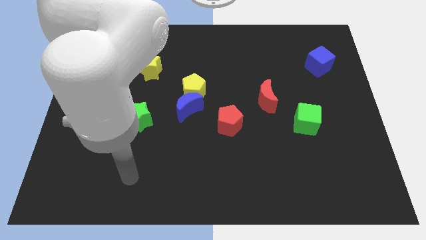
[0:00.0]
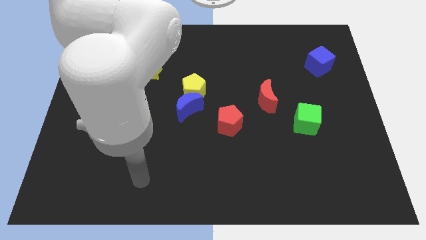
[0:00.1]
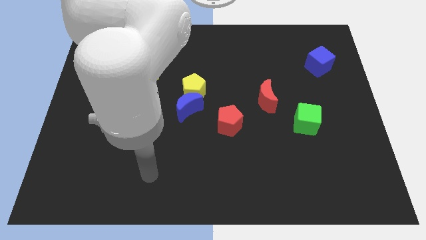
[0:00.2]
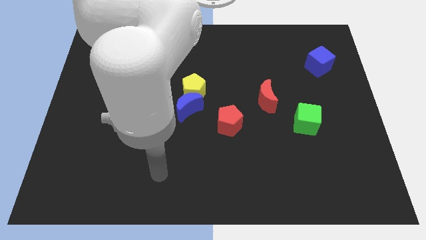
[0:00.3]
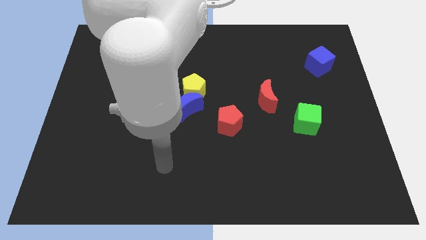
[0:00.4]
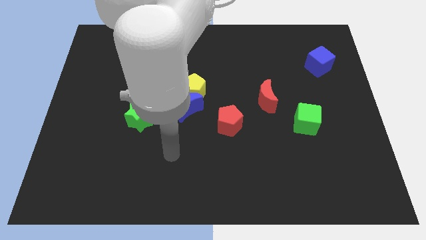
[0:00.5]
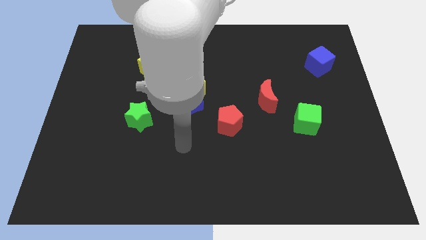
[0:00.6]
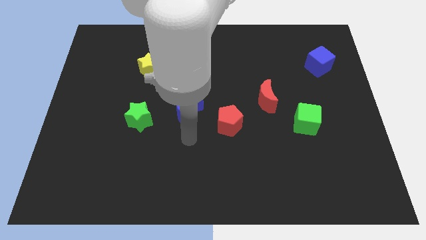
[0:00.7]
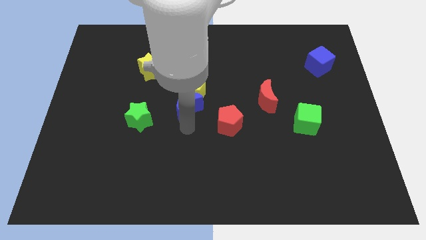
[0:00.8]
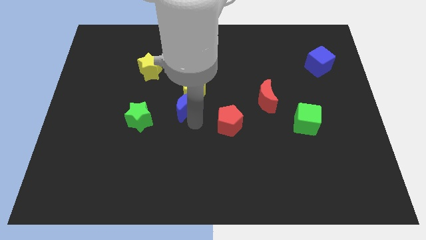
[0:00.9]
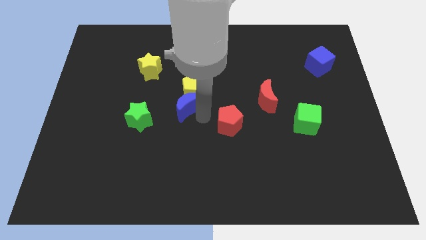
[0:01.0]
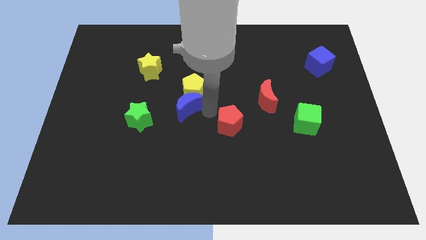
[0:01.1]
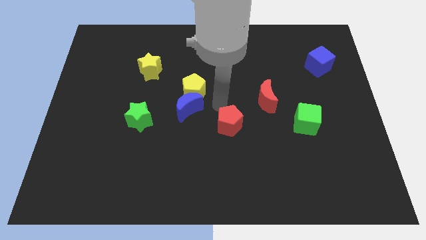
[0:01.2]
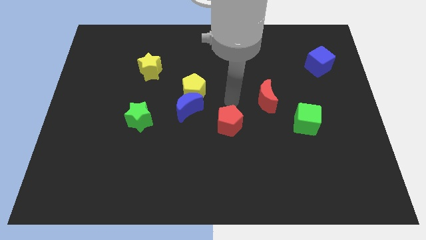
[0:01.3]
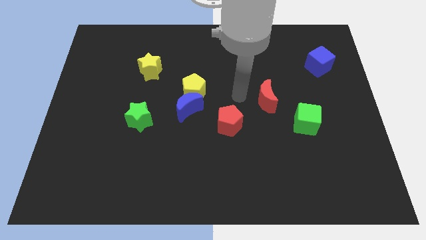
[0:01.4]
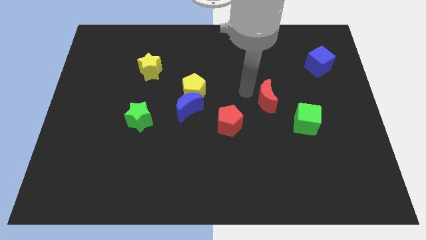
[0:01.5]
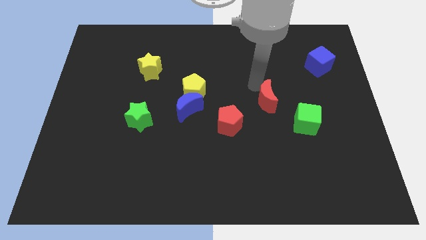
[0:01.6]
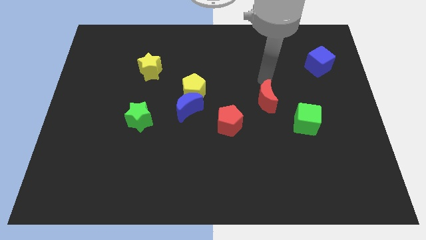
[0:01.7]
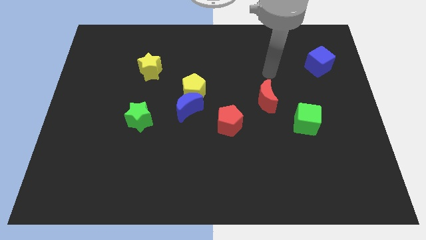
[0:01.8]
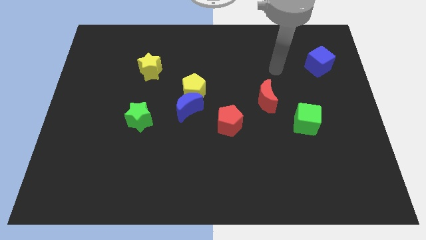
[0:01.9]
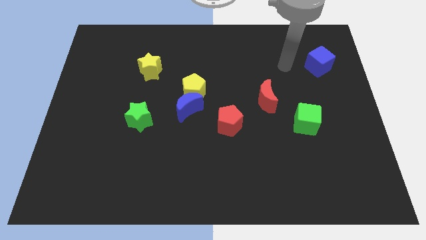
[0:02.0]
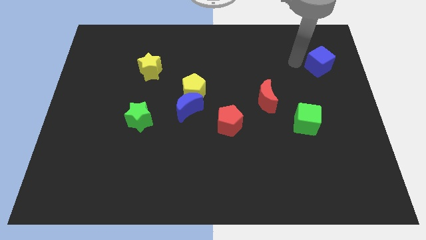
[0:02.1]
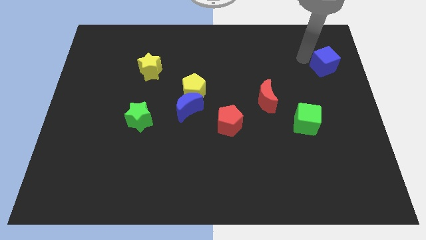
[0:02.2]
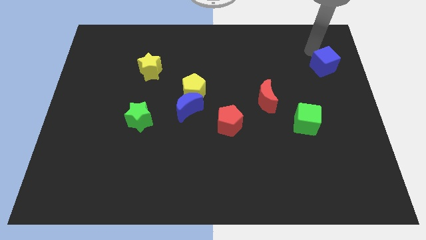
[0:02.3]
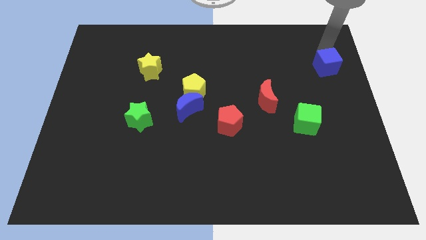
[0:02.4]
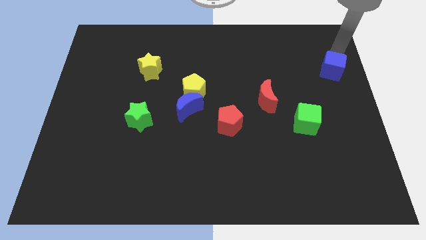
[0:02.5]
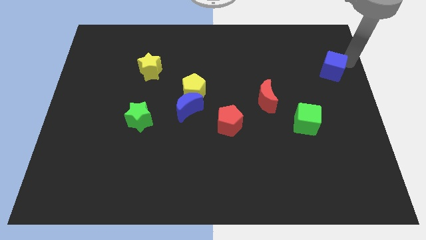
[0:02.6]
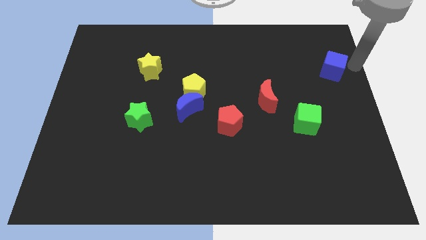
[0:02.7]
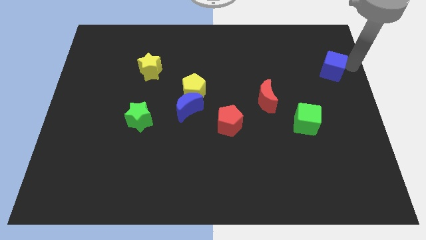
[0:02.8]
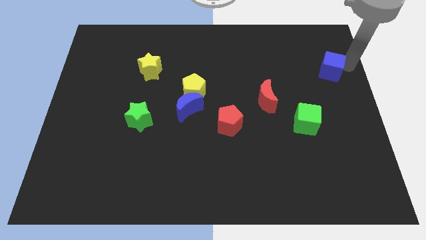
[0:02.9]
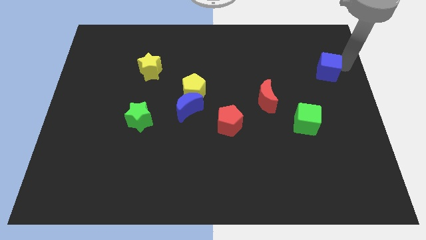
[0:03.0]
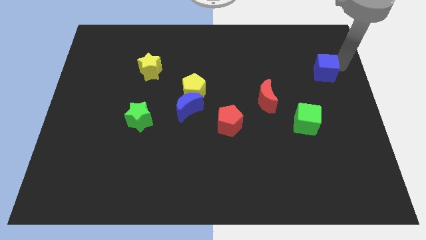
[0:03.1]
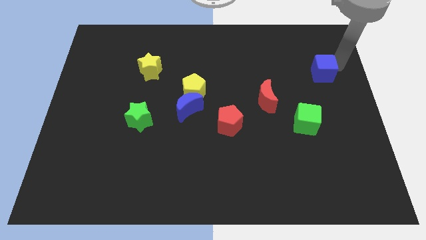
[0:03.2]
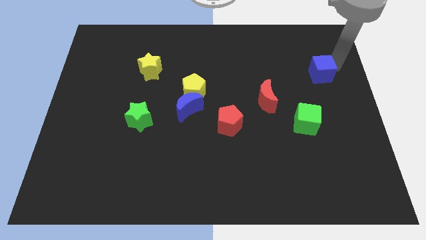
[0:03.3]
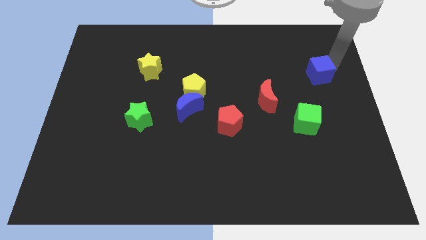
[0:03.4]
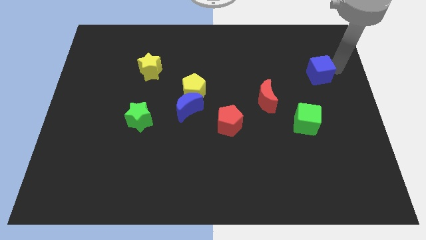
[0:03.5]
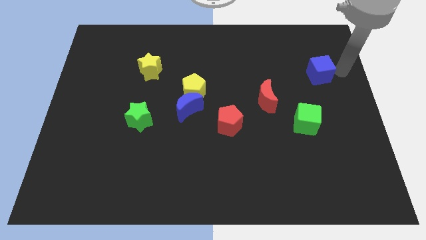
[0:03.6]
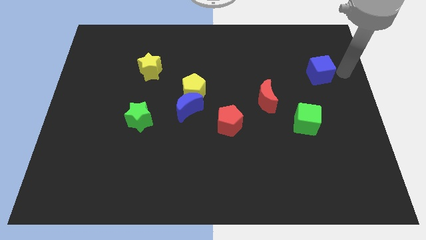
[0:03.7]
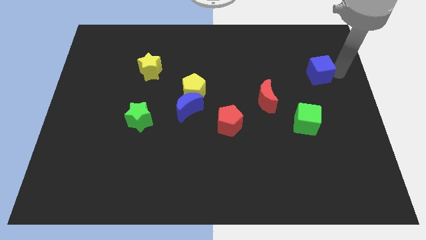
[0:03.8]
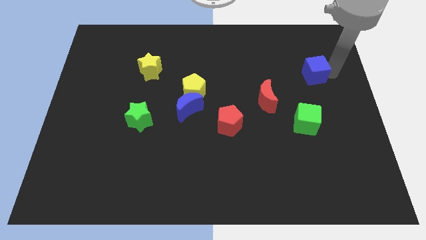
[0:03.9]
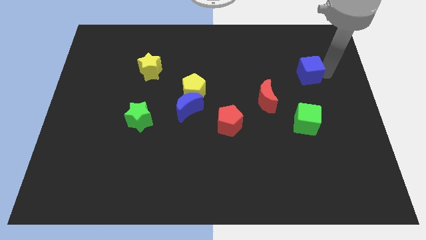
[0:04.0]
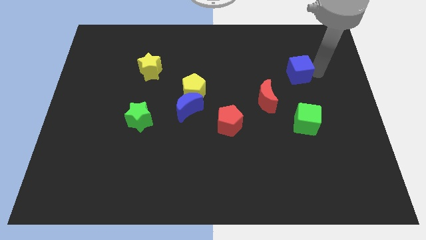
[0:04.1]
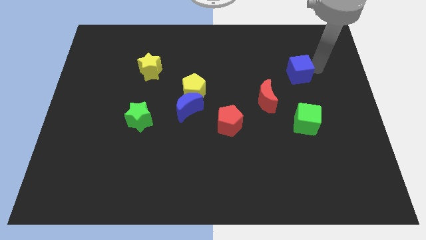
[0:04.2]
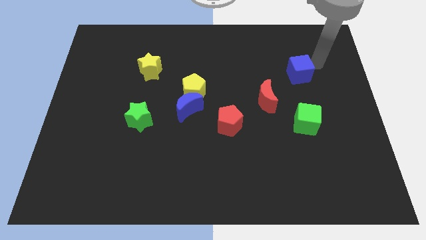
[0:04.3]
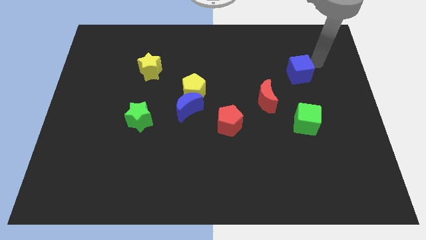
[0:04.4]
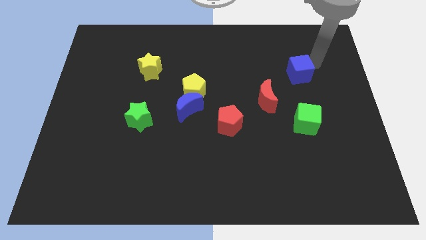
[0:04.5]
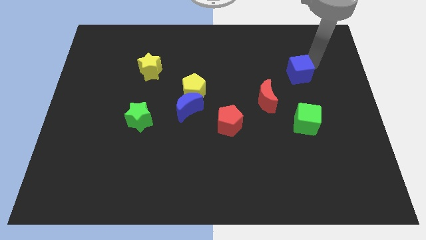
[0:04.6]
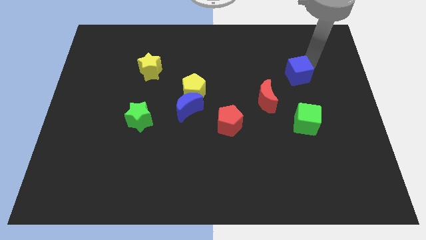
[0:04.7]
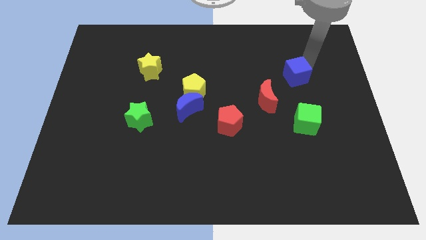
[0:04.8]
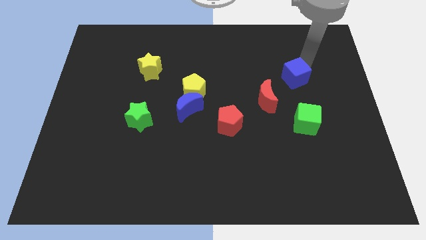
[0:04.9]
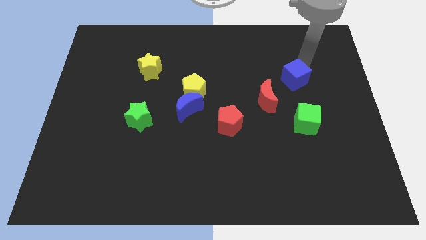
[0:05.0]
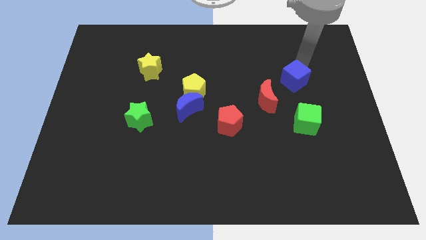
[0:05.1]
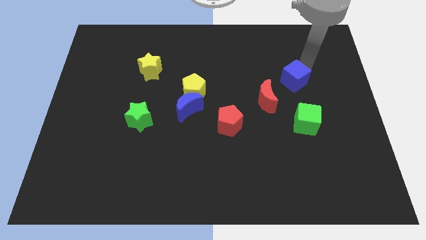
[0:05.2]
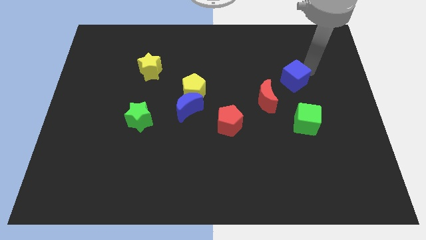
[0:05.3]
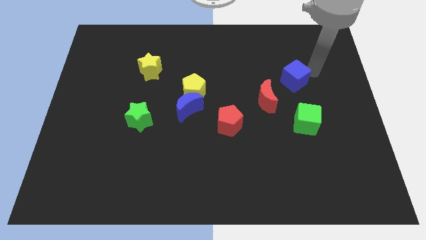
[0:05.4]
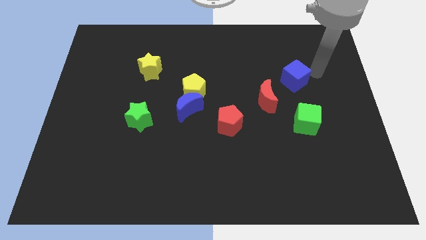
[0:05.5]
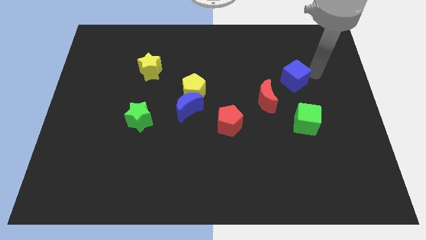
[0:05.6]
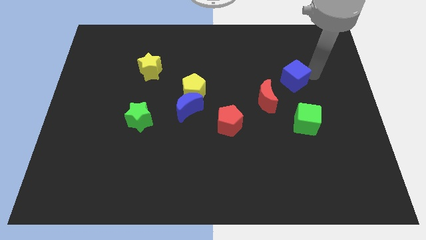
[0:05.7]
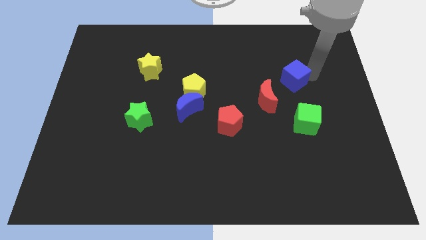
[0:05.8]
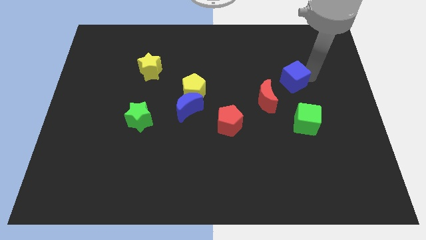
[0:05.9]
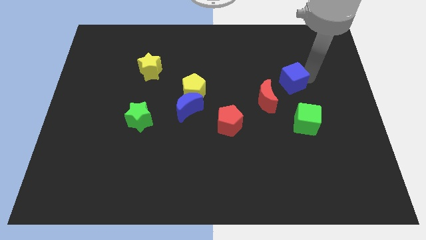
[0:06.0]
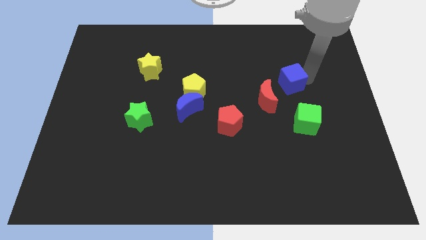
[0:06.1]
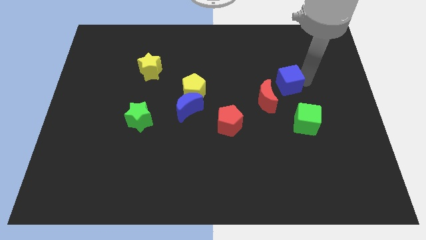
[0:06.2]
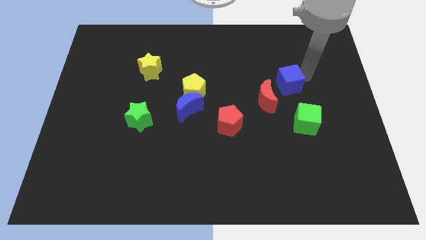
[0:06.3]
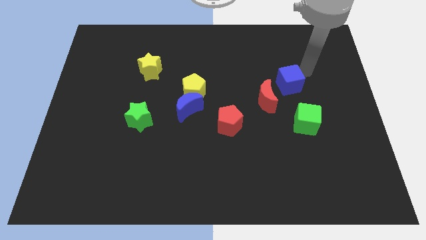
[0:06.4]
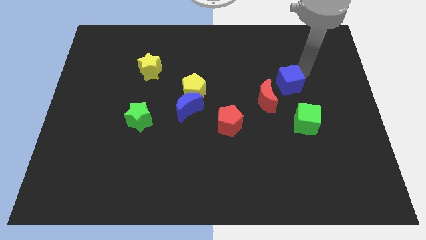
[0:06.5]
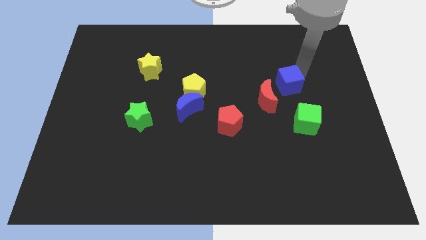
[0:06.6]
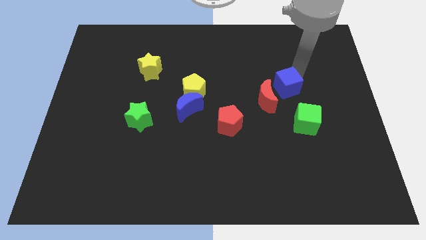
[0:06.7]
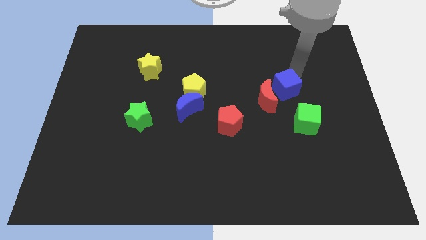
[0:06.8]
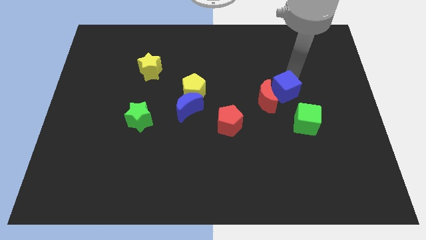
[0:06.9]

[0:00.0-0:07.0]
move the blue cube close to the red moon

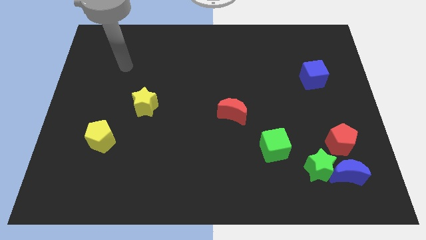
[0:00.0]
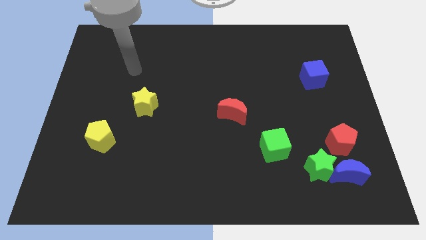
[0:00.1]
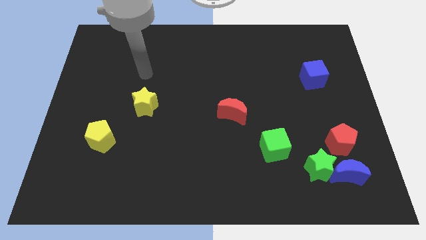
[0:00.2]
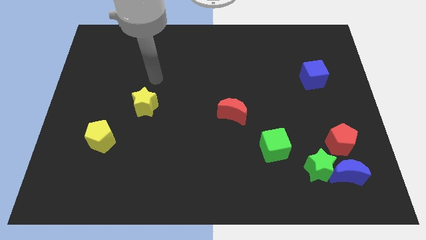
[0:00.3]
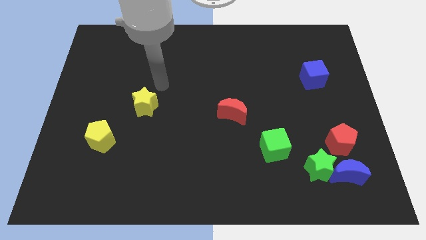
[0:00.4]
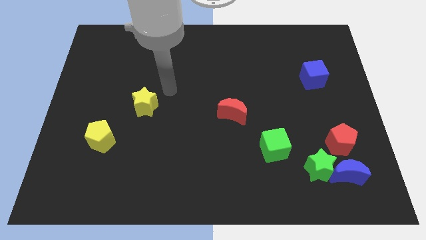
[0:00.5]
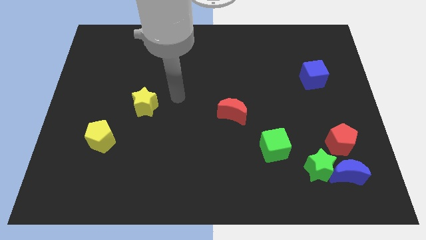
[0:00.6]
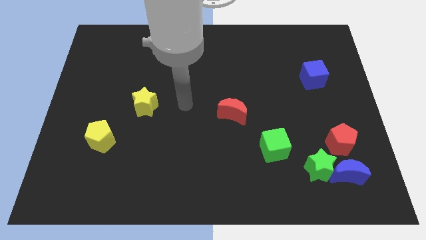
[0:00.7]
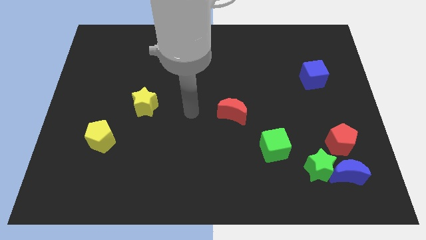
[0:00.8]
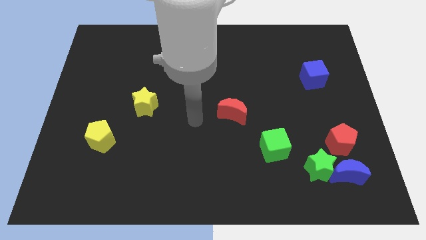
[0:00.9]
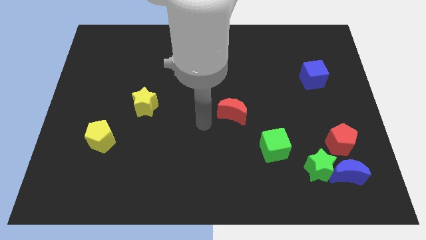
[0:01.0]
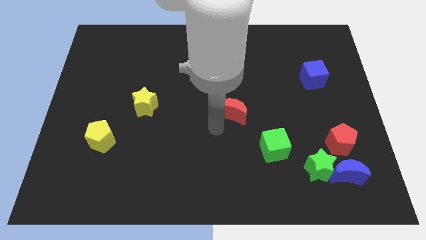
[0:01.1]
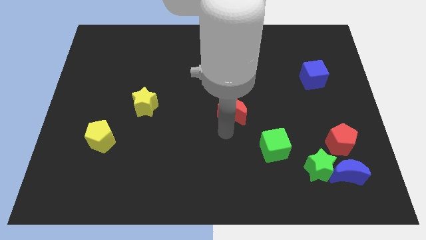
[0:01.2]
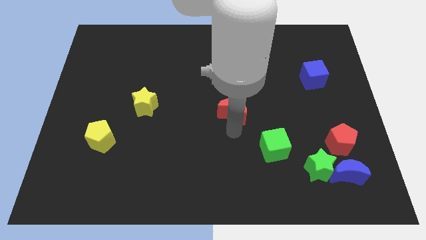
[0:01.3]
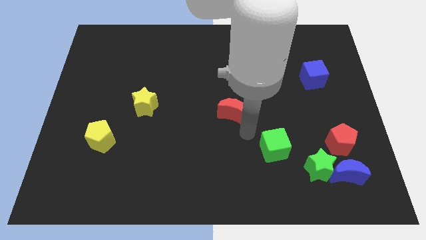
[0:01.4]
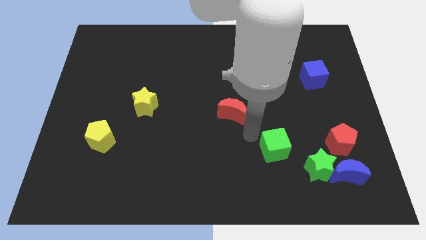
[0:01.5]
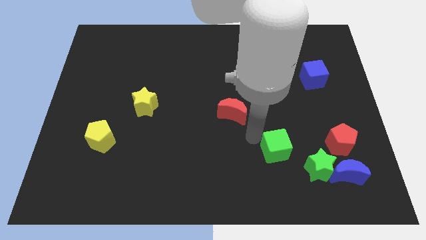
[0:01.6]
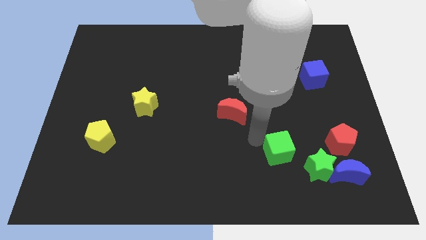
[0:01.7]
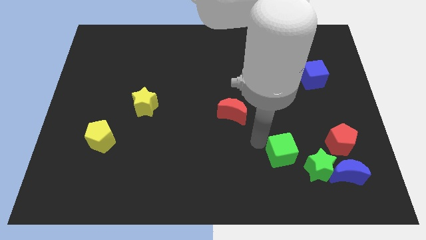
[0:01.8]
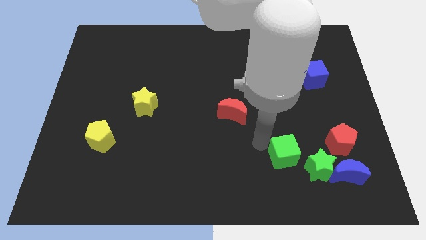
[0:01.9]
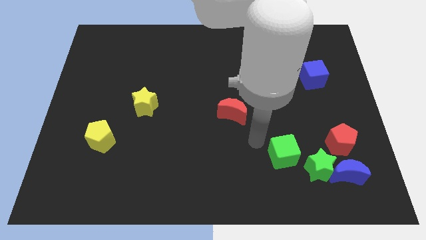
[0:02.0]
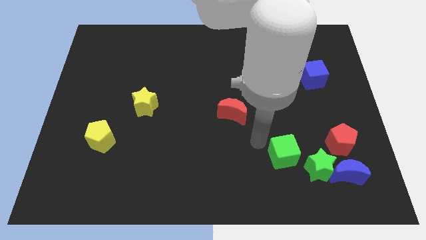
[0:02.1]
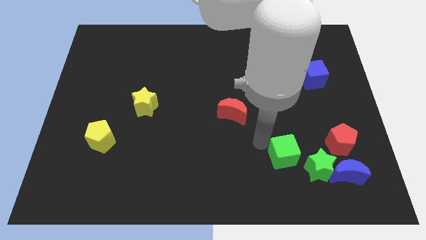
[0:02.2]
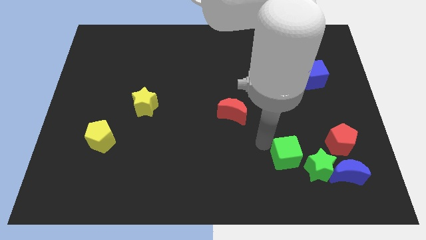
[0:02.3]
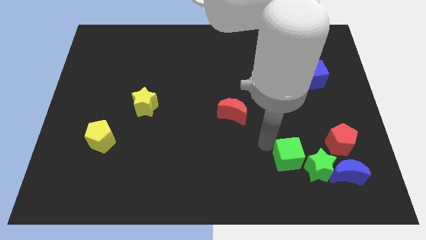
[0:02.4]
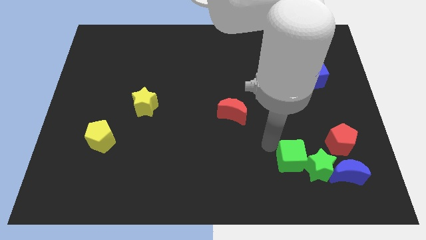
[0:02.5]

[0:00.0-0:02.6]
slide the green cube towards the green star
